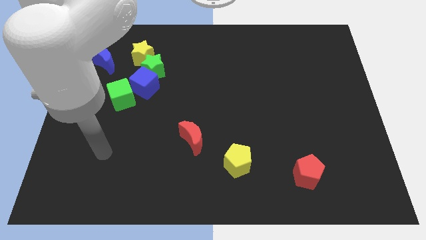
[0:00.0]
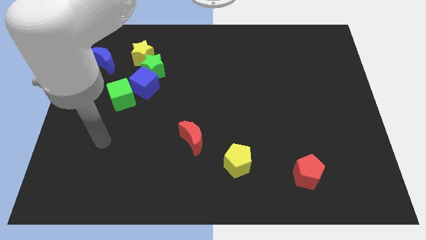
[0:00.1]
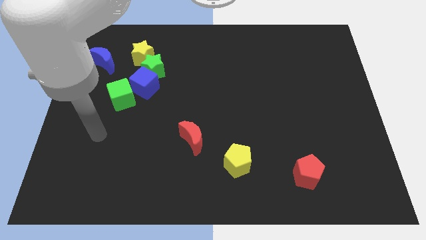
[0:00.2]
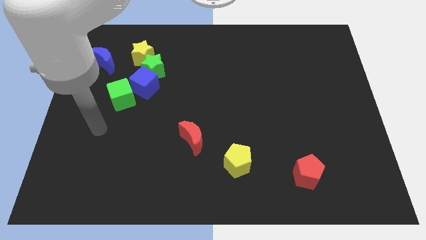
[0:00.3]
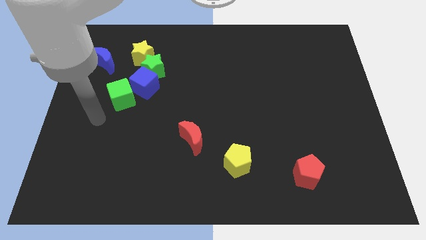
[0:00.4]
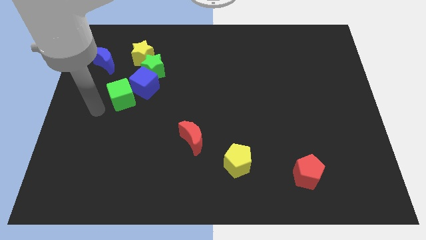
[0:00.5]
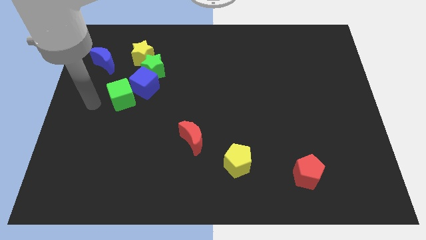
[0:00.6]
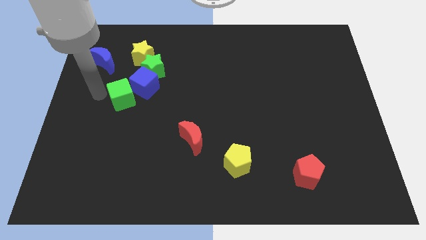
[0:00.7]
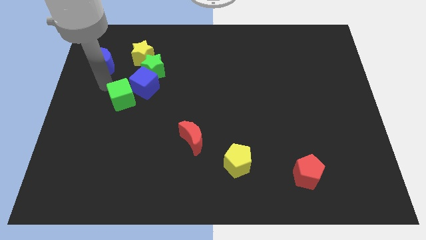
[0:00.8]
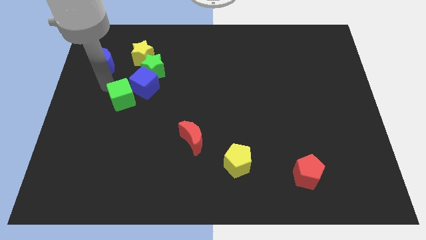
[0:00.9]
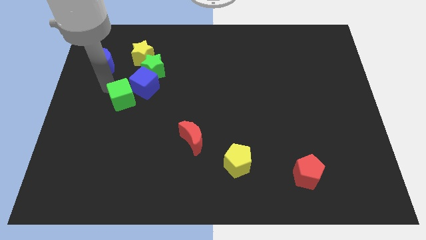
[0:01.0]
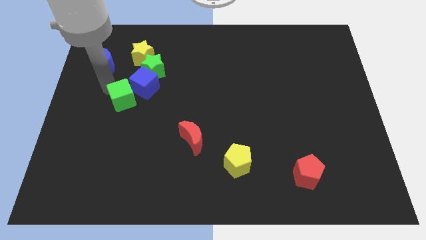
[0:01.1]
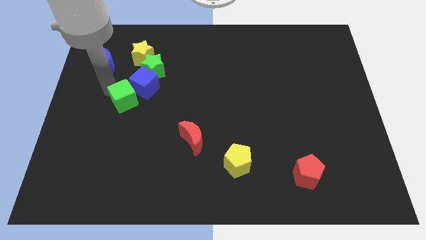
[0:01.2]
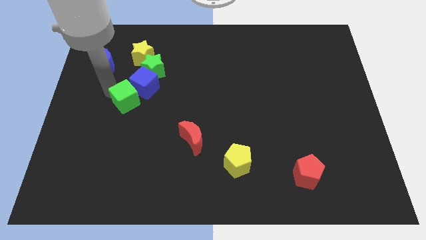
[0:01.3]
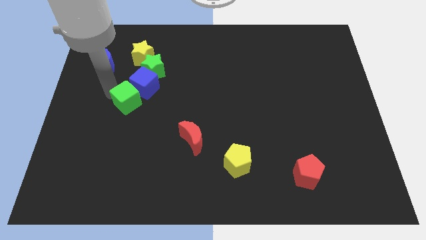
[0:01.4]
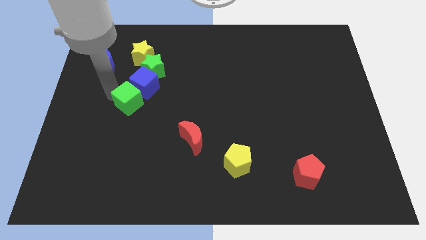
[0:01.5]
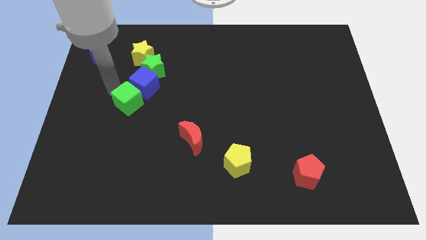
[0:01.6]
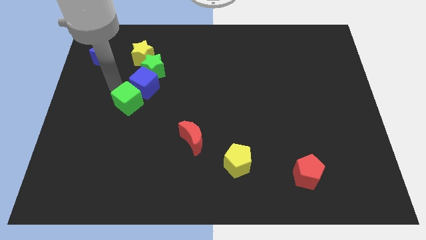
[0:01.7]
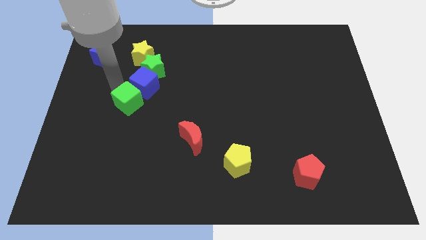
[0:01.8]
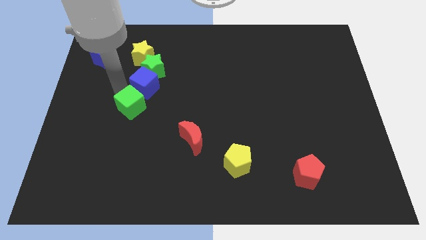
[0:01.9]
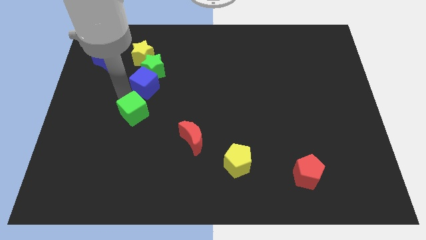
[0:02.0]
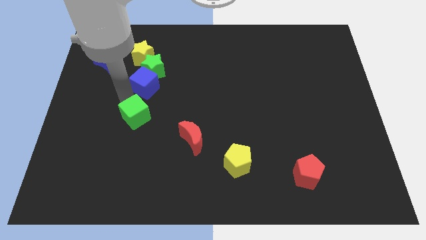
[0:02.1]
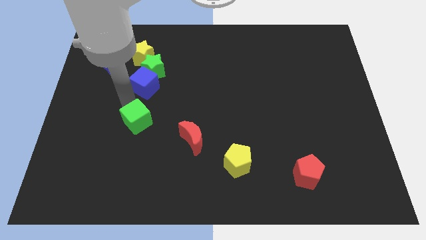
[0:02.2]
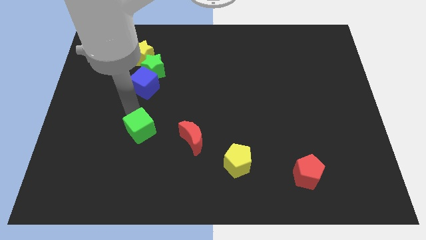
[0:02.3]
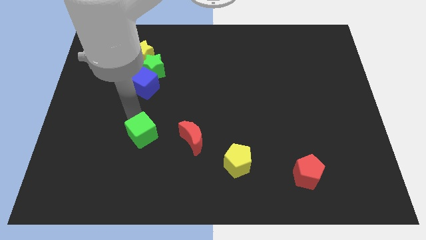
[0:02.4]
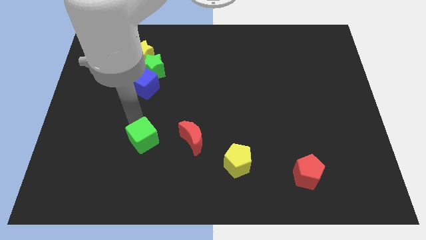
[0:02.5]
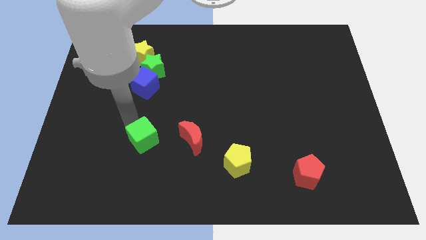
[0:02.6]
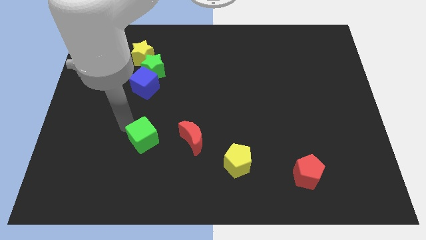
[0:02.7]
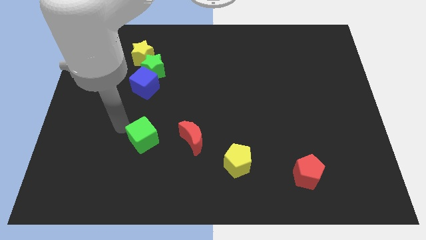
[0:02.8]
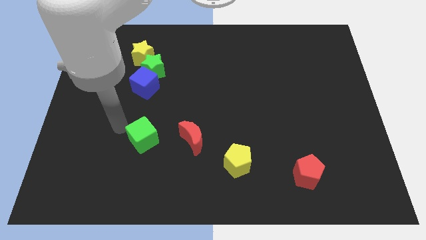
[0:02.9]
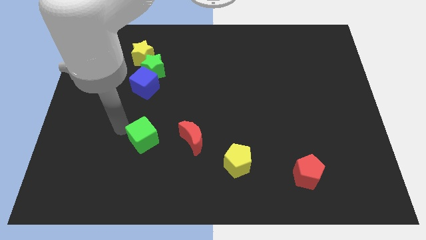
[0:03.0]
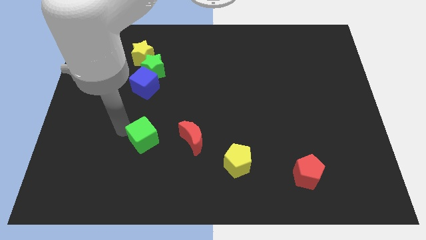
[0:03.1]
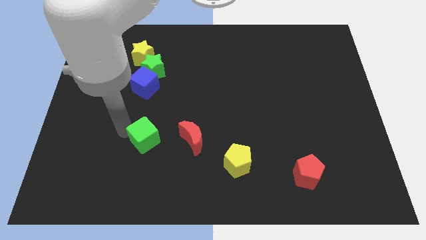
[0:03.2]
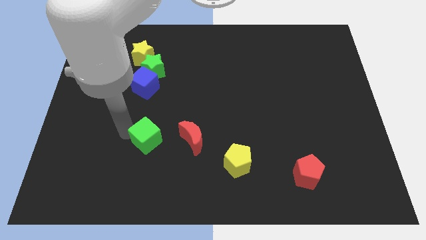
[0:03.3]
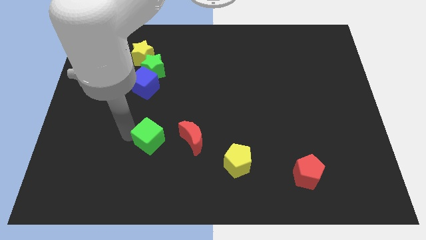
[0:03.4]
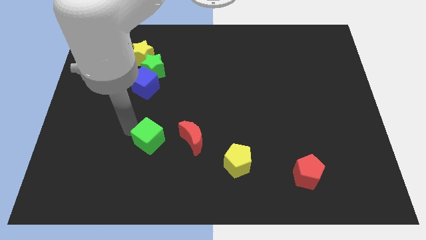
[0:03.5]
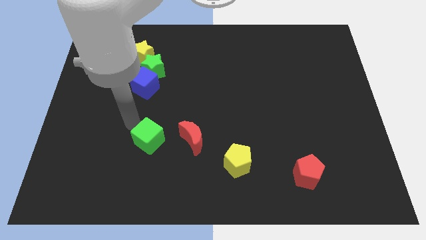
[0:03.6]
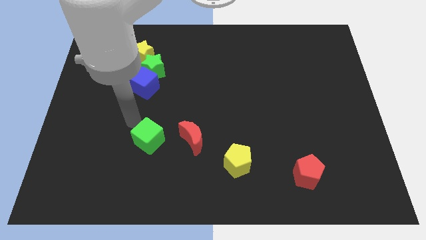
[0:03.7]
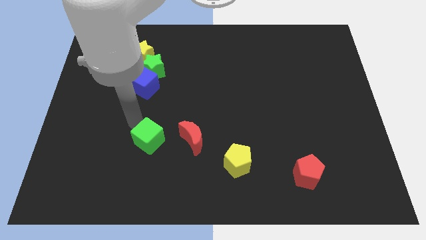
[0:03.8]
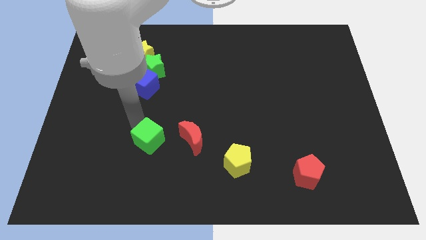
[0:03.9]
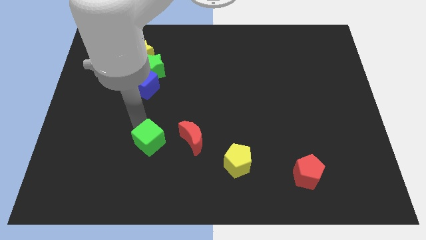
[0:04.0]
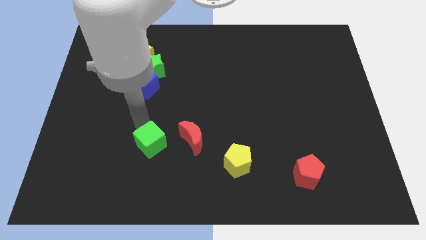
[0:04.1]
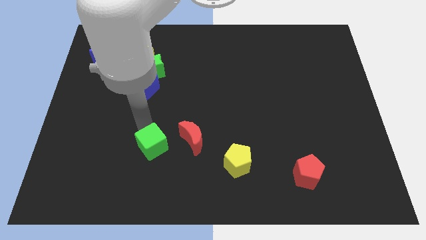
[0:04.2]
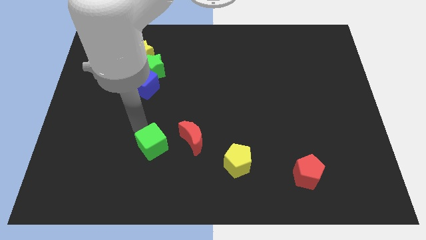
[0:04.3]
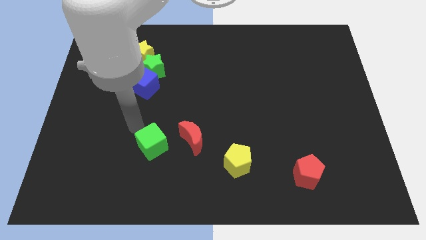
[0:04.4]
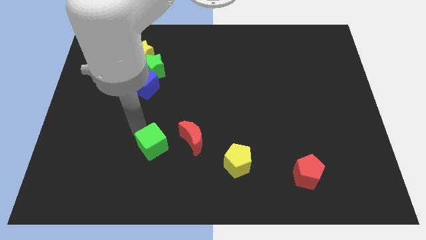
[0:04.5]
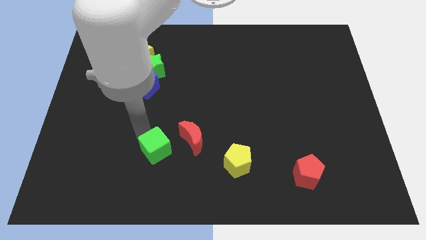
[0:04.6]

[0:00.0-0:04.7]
push the green cube diagonally down and to the left of the red moon

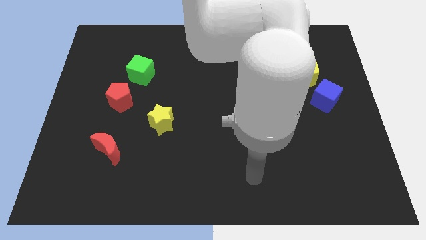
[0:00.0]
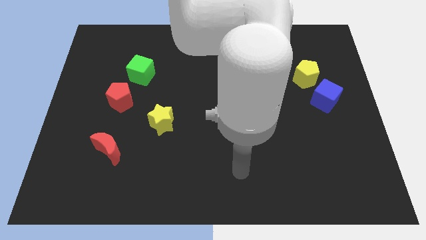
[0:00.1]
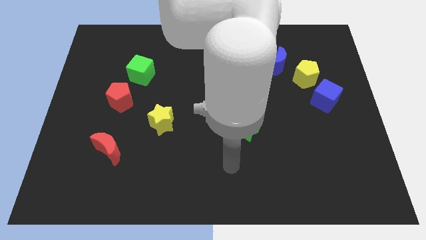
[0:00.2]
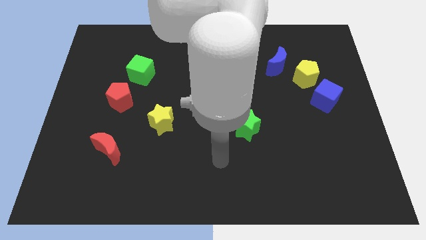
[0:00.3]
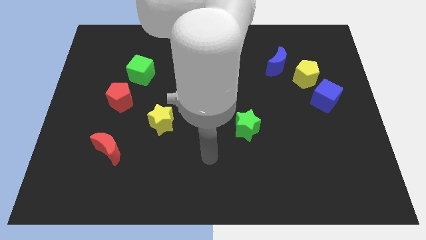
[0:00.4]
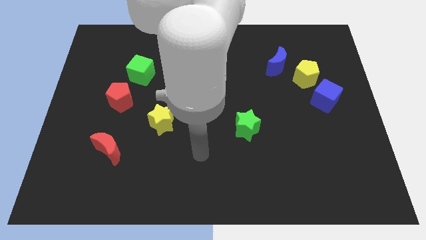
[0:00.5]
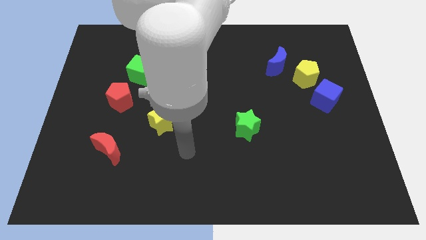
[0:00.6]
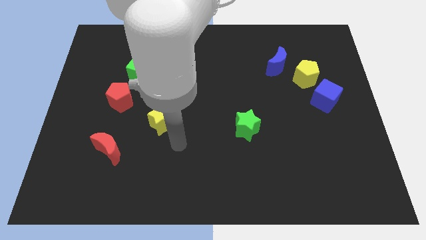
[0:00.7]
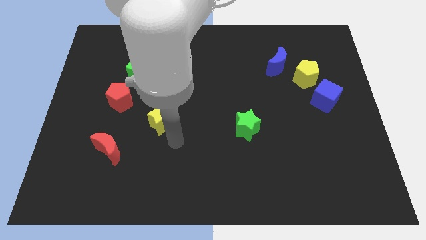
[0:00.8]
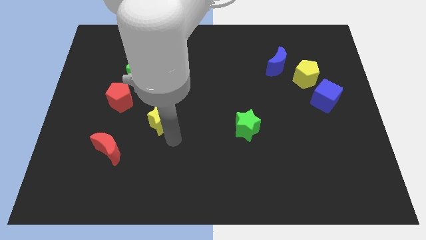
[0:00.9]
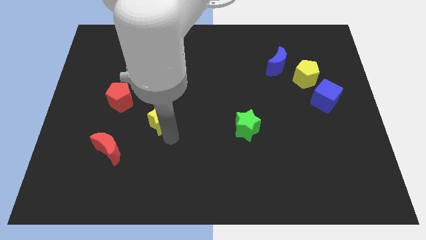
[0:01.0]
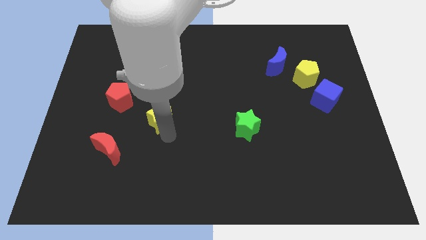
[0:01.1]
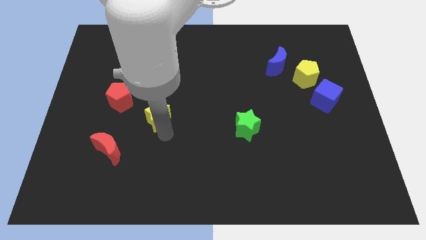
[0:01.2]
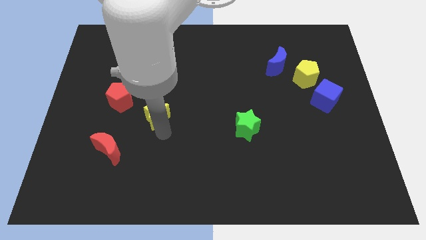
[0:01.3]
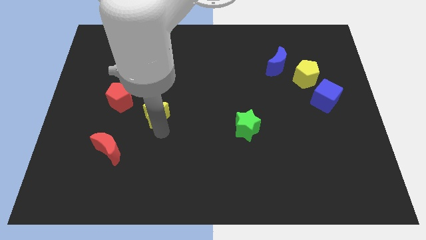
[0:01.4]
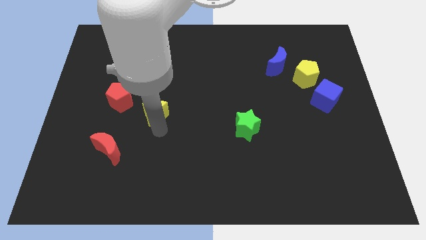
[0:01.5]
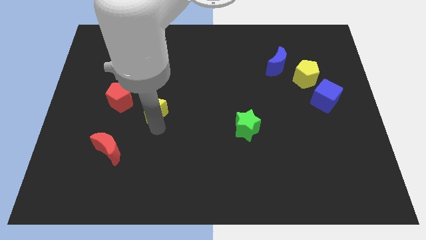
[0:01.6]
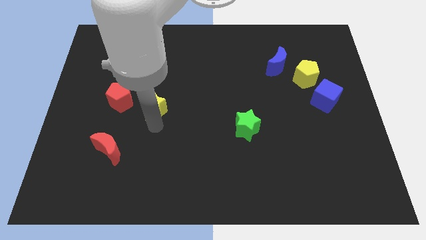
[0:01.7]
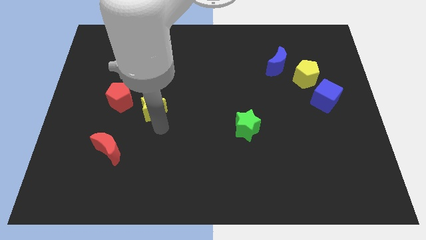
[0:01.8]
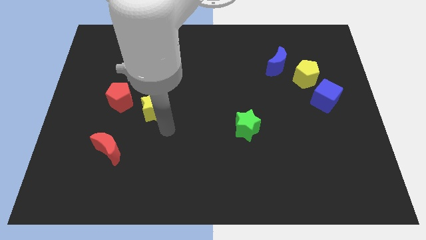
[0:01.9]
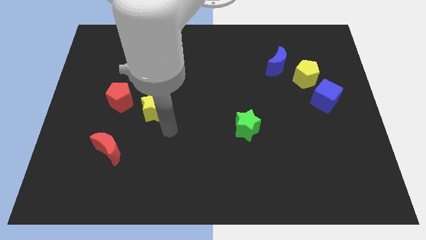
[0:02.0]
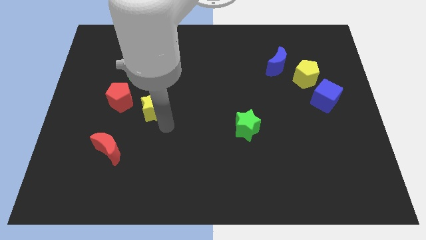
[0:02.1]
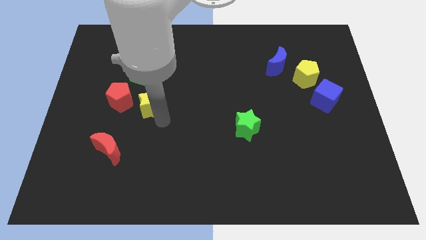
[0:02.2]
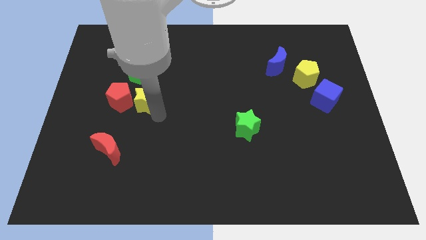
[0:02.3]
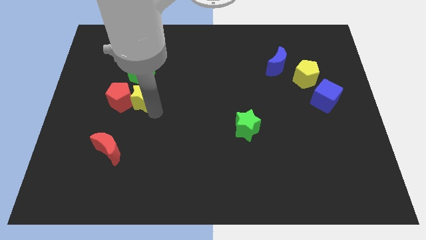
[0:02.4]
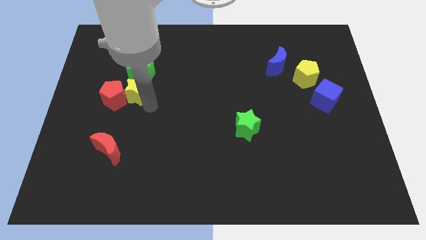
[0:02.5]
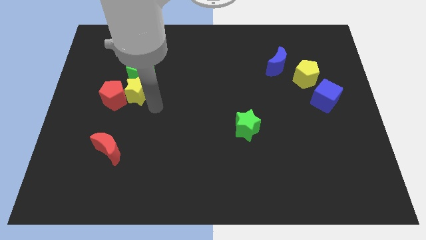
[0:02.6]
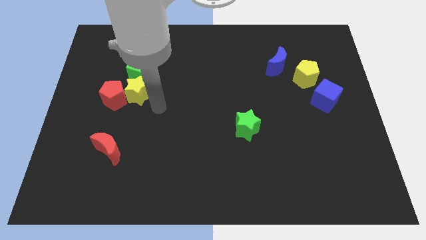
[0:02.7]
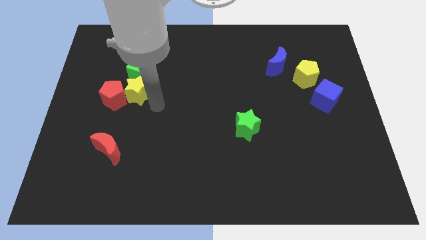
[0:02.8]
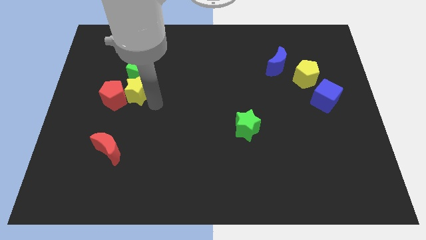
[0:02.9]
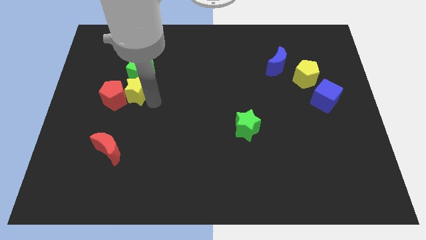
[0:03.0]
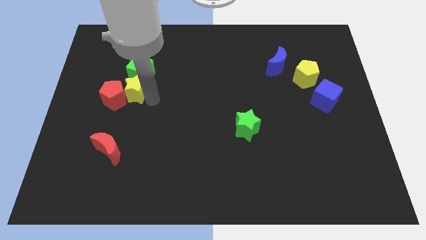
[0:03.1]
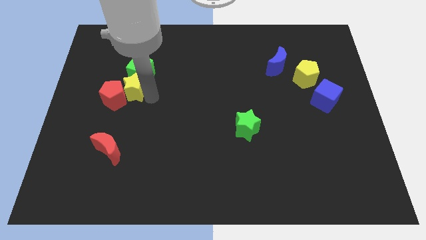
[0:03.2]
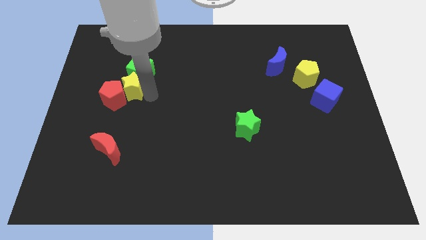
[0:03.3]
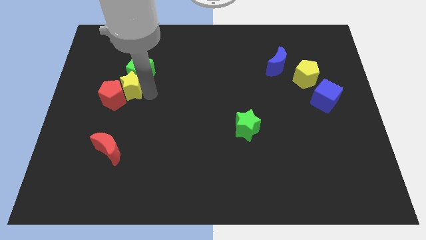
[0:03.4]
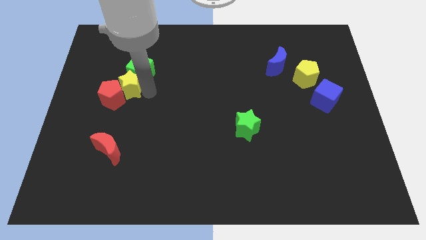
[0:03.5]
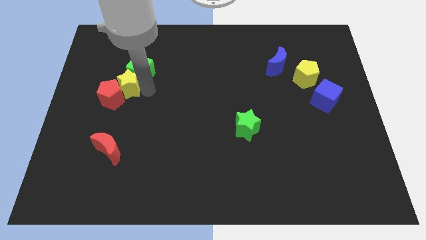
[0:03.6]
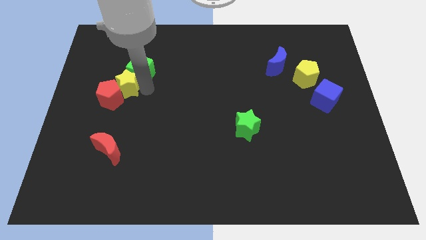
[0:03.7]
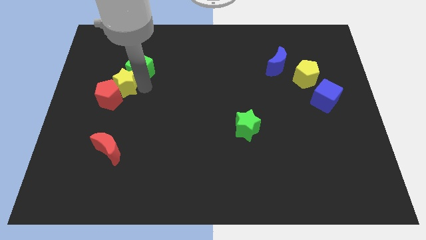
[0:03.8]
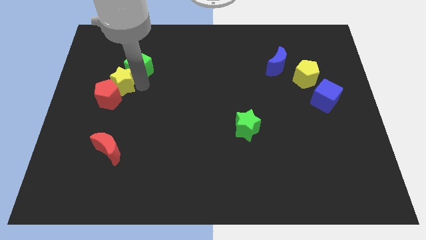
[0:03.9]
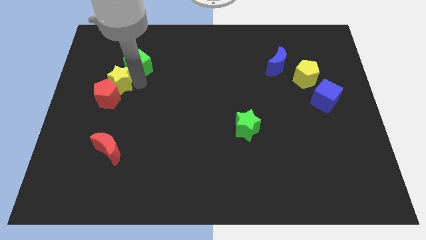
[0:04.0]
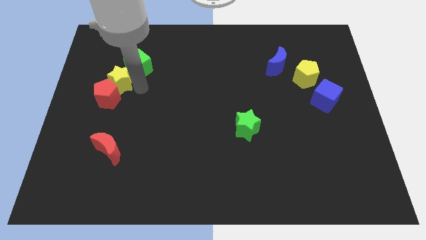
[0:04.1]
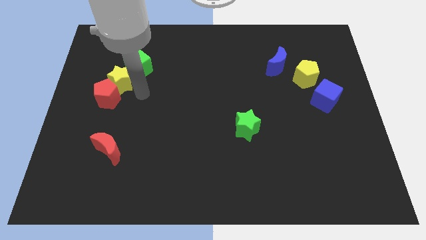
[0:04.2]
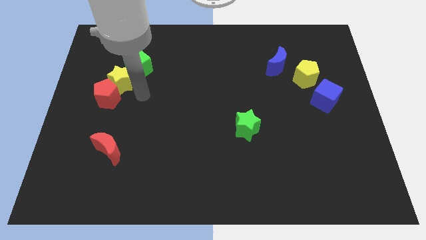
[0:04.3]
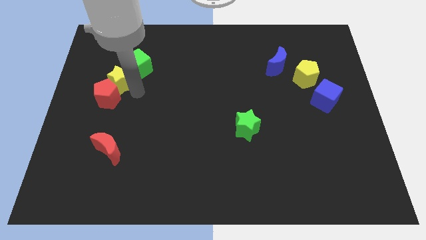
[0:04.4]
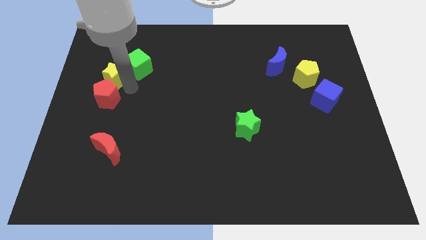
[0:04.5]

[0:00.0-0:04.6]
move the yellow star to the left side of the green cube
